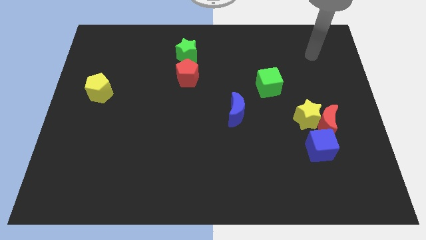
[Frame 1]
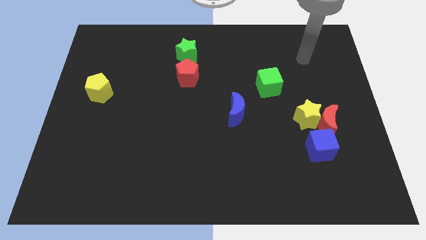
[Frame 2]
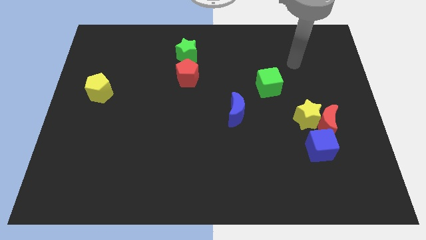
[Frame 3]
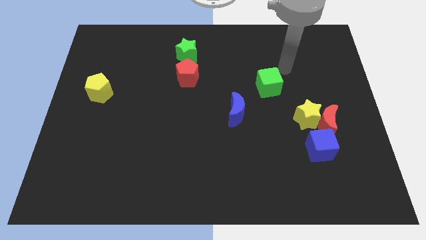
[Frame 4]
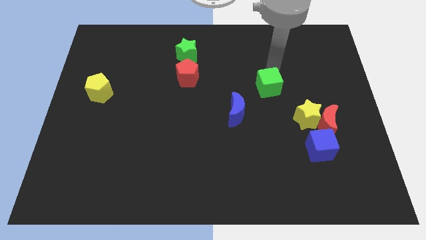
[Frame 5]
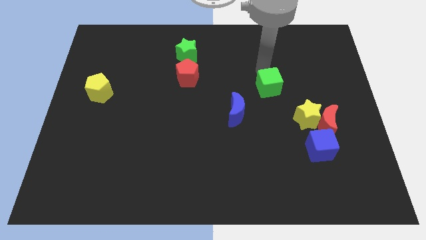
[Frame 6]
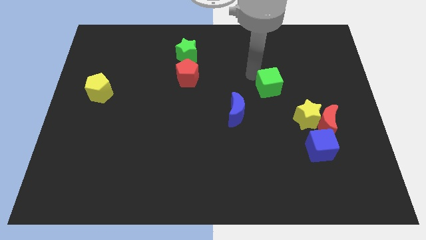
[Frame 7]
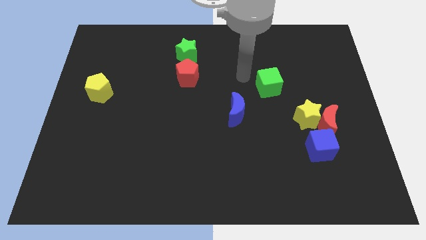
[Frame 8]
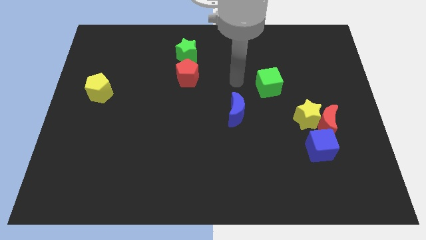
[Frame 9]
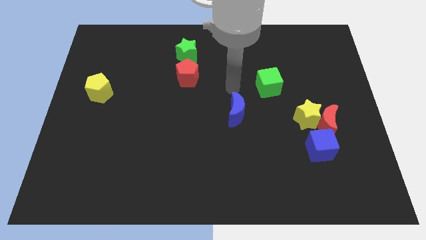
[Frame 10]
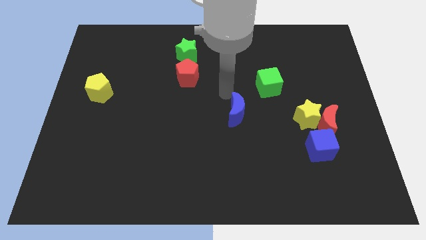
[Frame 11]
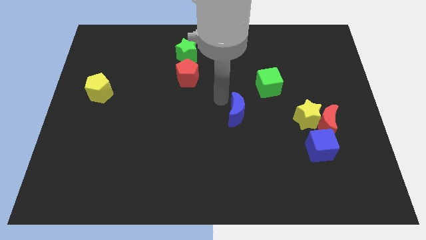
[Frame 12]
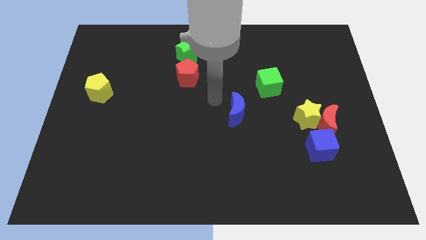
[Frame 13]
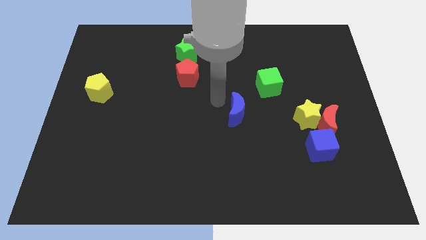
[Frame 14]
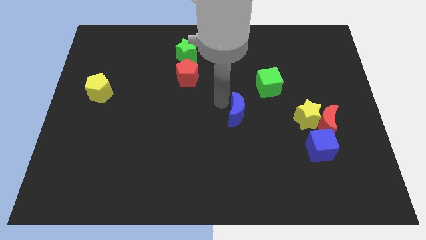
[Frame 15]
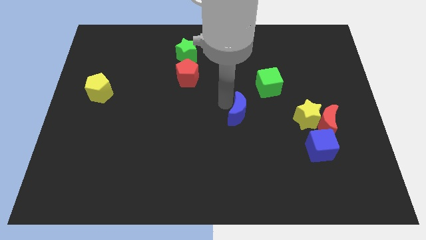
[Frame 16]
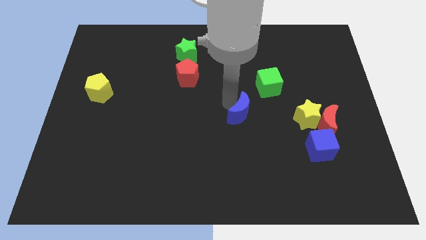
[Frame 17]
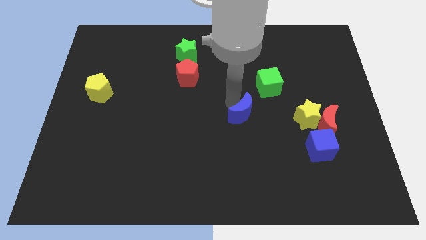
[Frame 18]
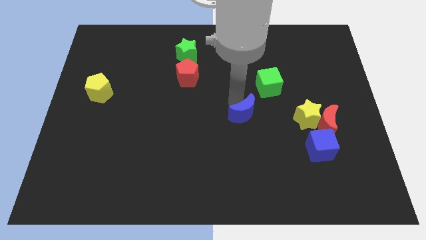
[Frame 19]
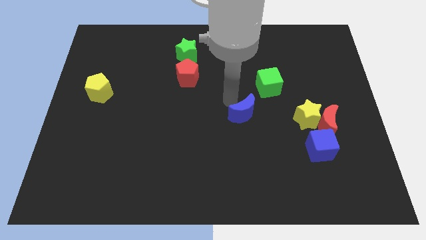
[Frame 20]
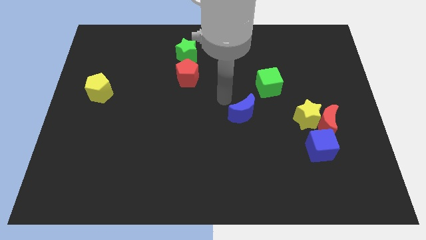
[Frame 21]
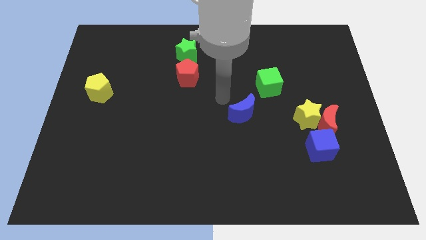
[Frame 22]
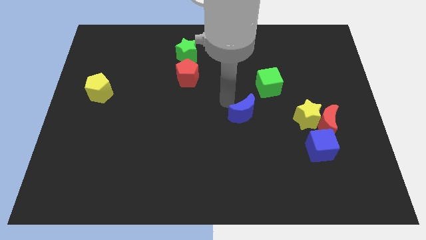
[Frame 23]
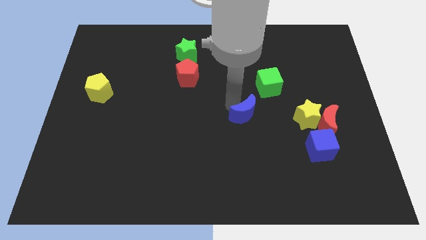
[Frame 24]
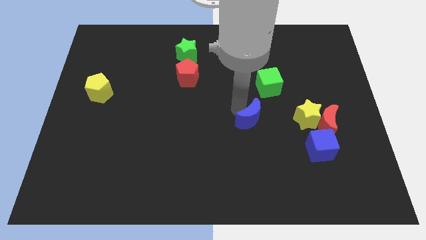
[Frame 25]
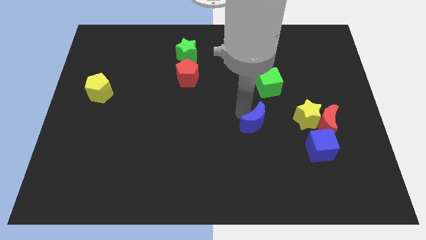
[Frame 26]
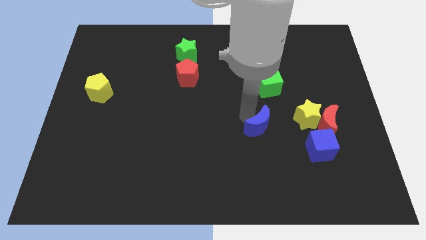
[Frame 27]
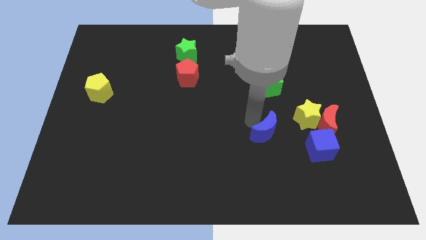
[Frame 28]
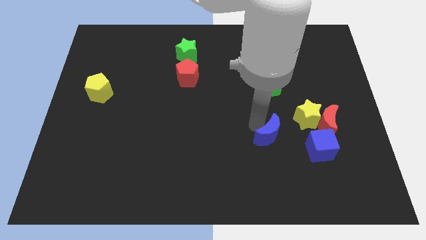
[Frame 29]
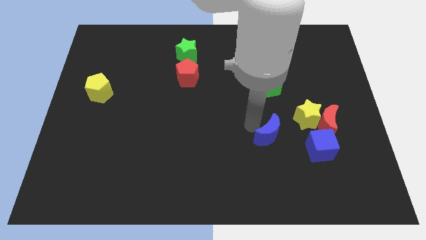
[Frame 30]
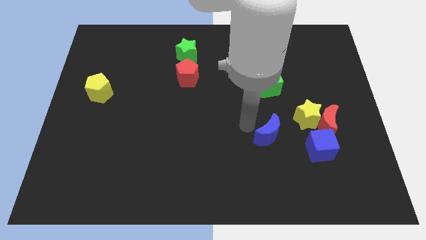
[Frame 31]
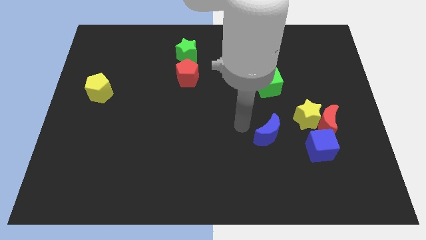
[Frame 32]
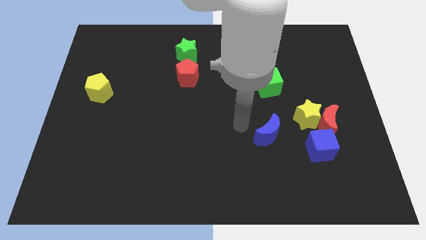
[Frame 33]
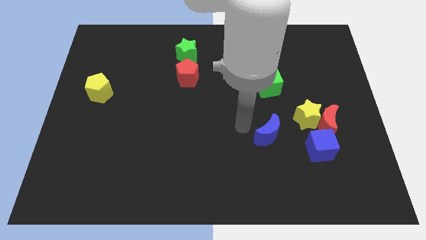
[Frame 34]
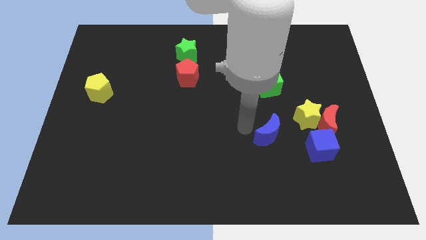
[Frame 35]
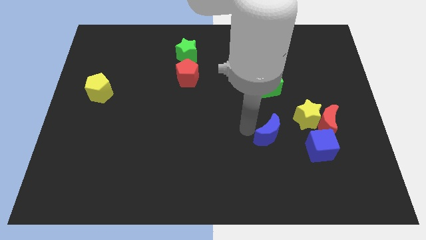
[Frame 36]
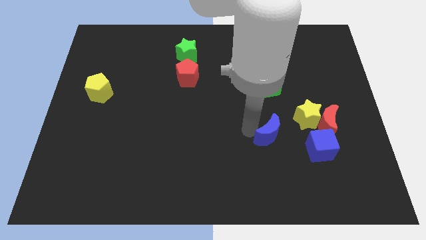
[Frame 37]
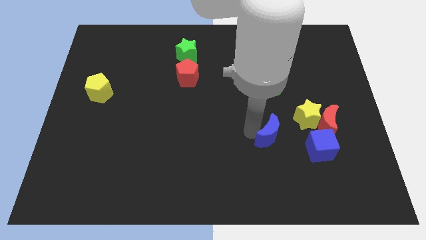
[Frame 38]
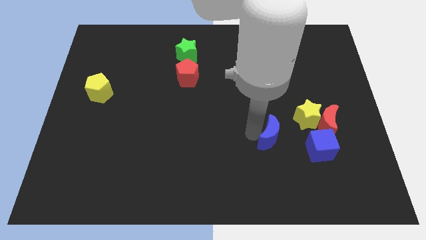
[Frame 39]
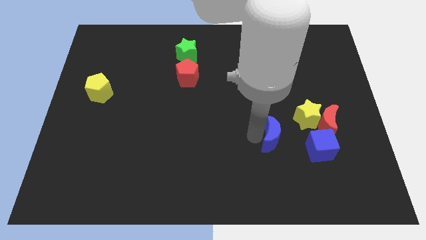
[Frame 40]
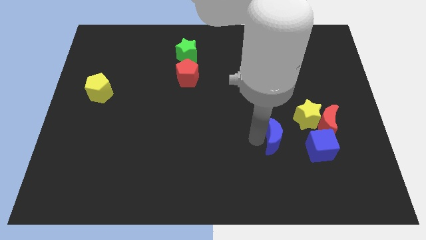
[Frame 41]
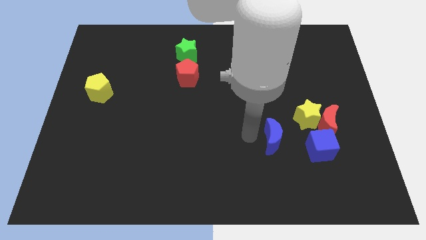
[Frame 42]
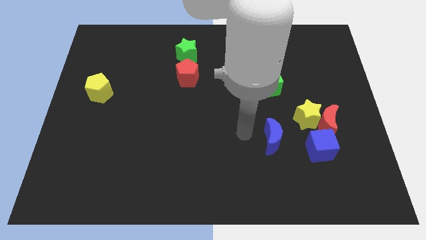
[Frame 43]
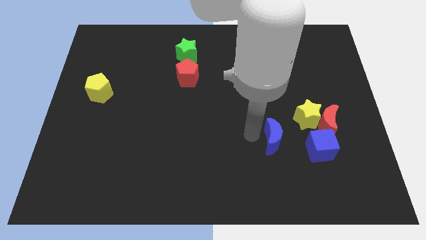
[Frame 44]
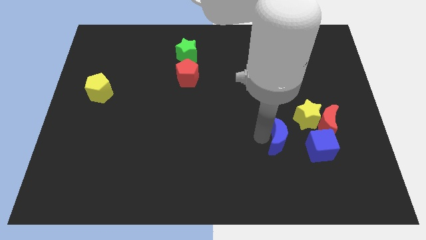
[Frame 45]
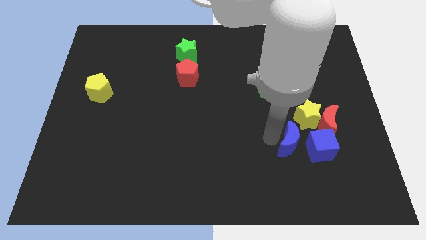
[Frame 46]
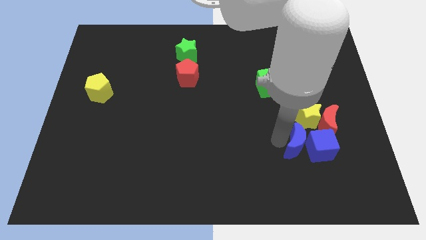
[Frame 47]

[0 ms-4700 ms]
slide the blue moon next to the blue cube

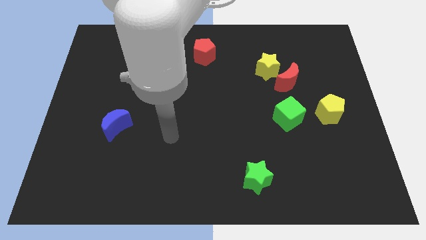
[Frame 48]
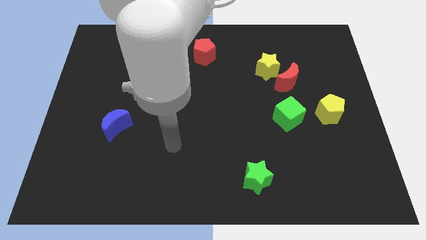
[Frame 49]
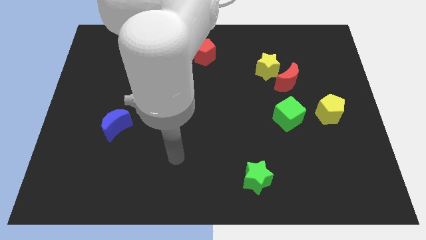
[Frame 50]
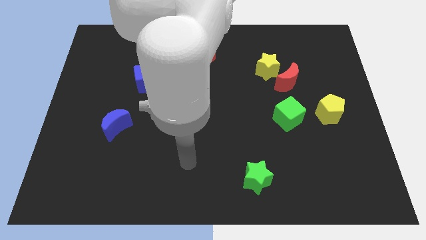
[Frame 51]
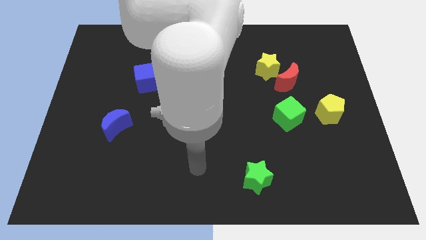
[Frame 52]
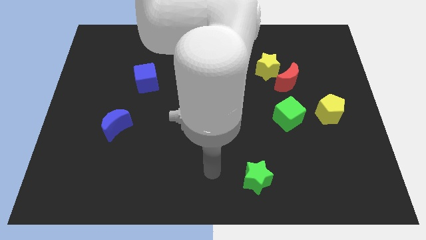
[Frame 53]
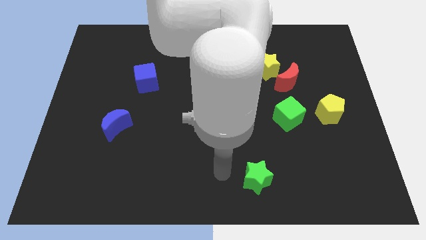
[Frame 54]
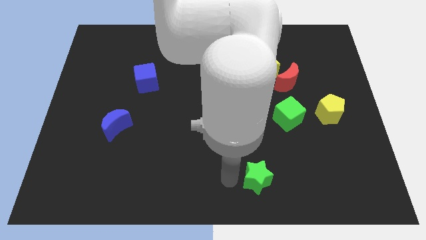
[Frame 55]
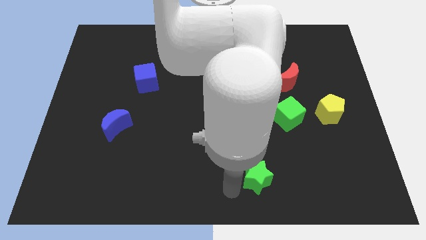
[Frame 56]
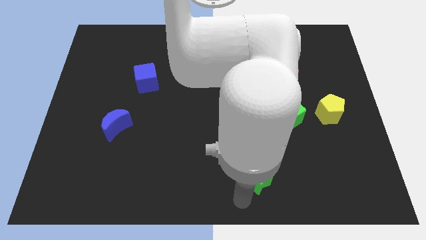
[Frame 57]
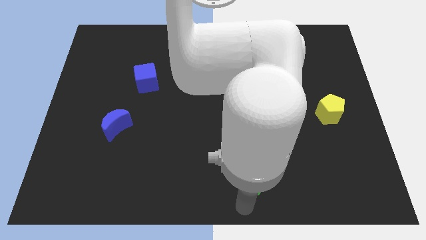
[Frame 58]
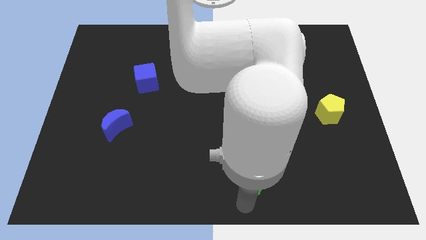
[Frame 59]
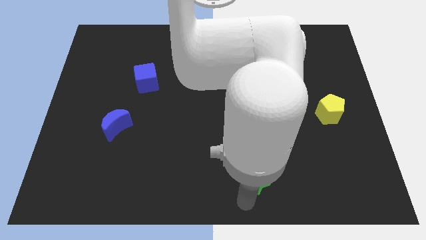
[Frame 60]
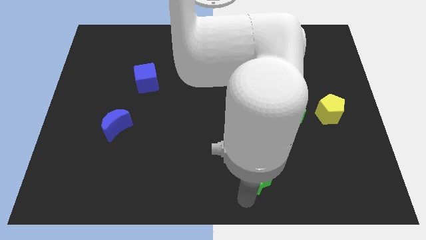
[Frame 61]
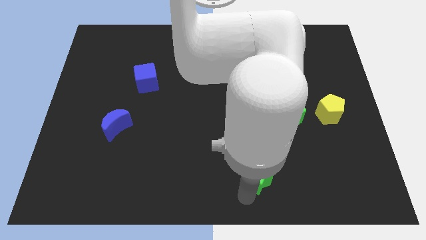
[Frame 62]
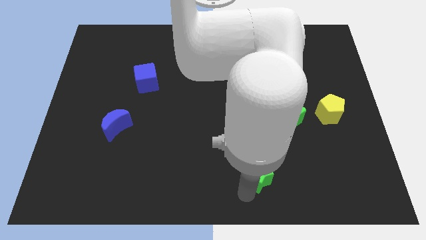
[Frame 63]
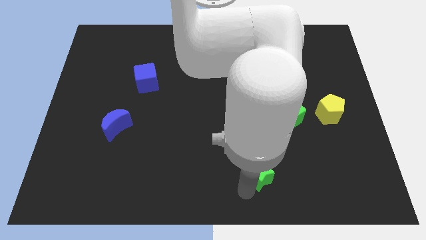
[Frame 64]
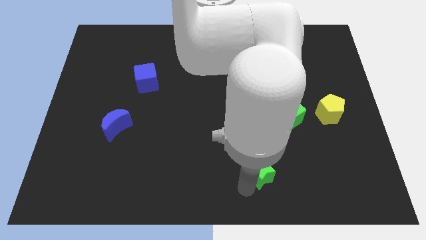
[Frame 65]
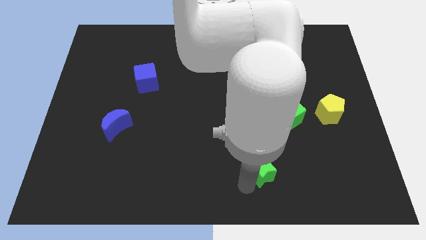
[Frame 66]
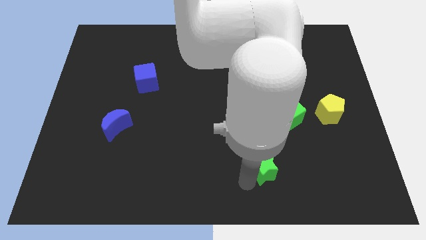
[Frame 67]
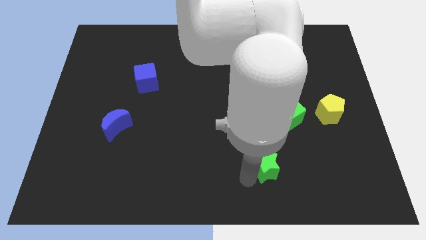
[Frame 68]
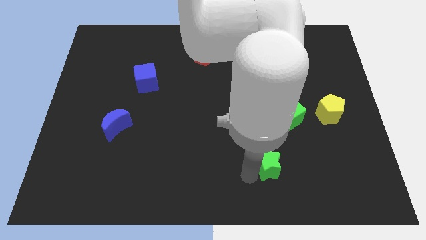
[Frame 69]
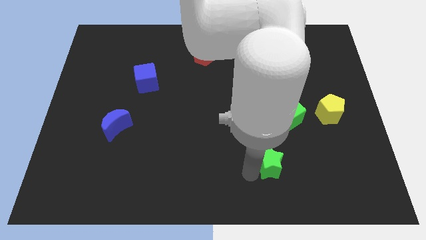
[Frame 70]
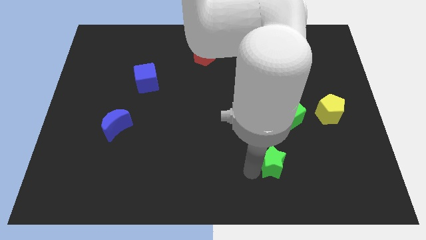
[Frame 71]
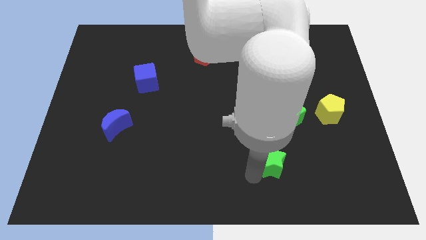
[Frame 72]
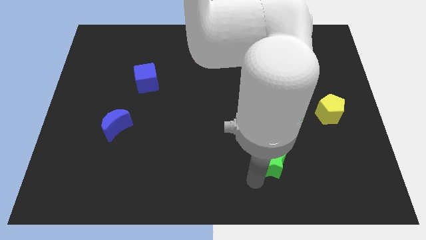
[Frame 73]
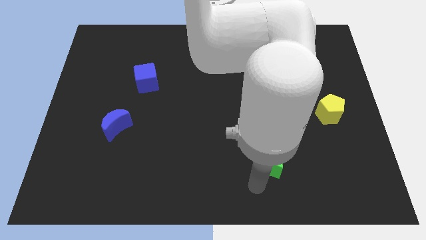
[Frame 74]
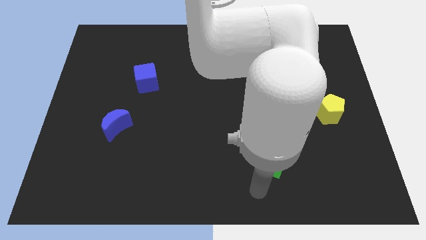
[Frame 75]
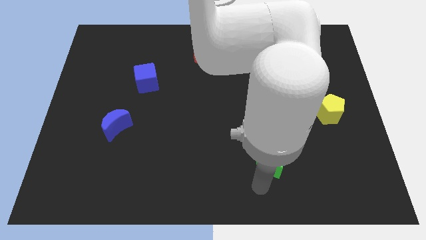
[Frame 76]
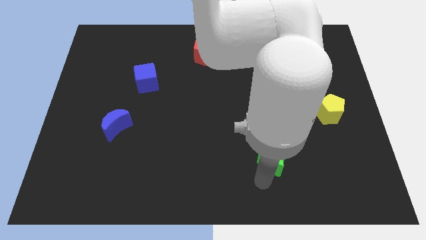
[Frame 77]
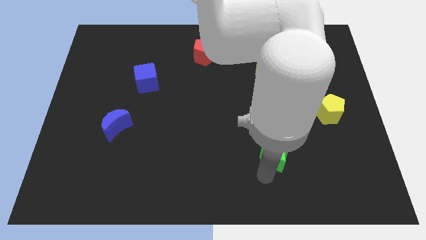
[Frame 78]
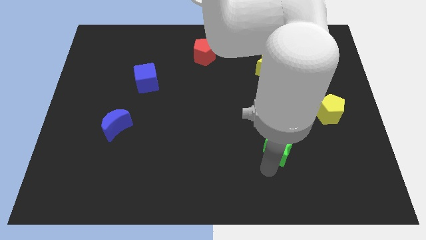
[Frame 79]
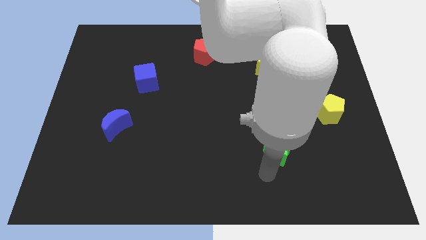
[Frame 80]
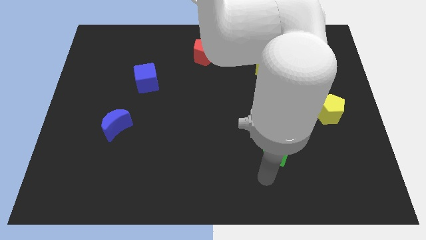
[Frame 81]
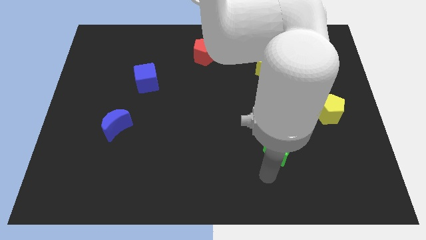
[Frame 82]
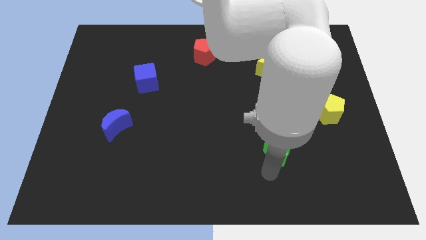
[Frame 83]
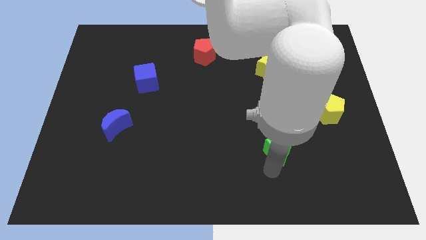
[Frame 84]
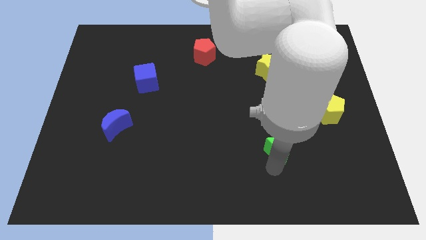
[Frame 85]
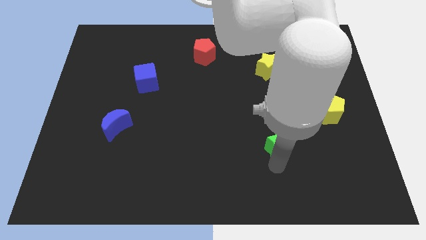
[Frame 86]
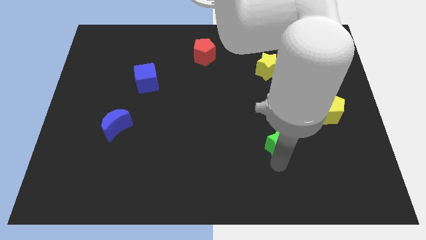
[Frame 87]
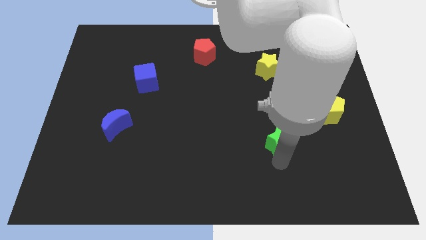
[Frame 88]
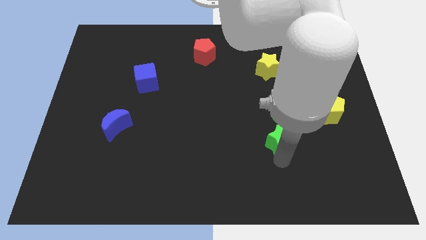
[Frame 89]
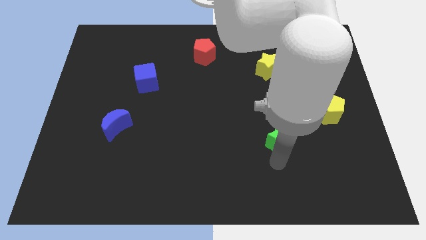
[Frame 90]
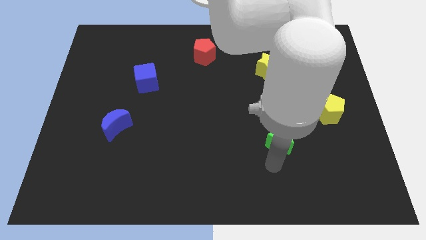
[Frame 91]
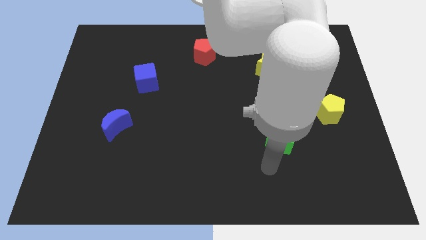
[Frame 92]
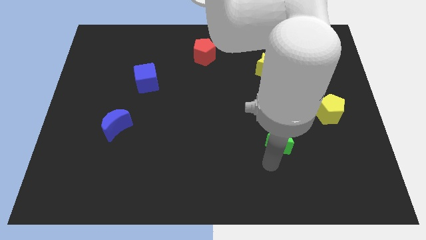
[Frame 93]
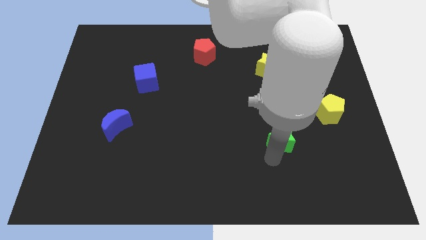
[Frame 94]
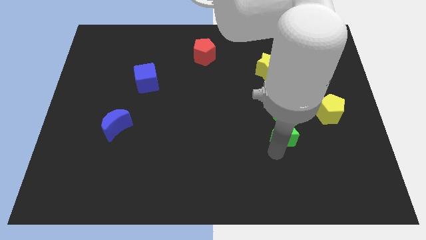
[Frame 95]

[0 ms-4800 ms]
put the green star close to the green cube
